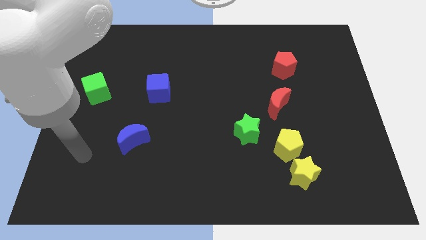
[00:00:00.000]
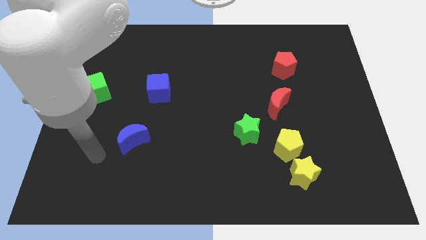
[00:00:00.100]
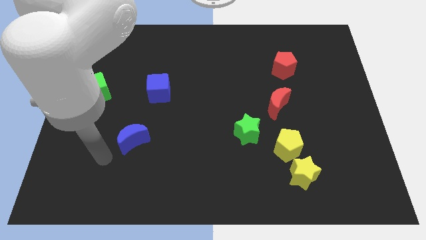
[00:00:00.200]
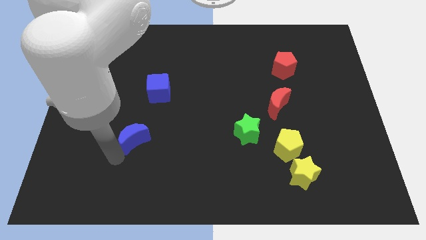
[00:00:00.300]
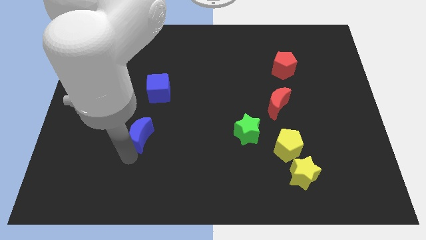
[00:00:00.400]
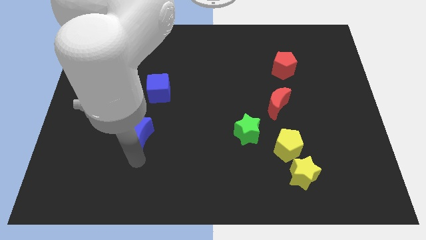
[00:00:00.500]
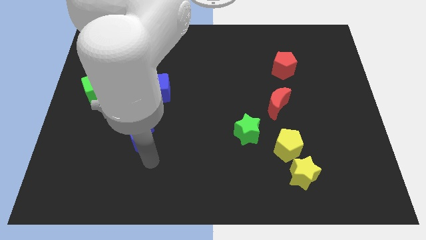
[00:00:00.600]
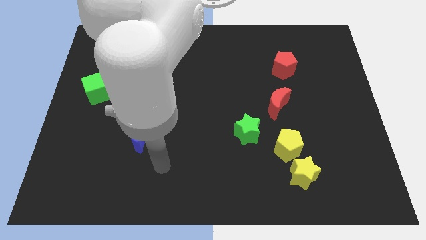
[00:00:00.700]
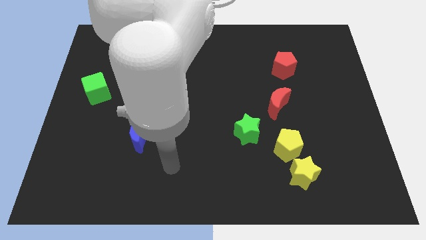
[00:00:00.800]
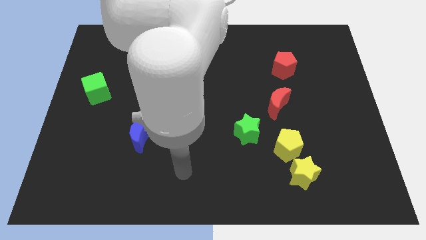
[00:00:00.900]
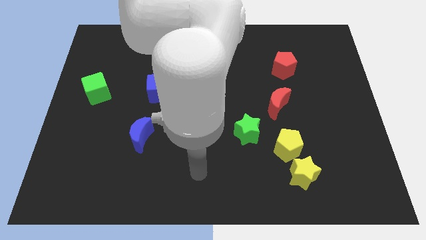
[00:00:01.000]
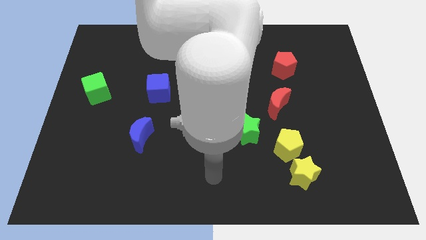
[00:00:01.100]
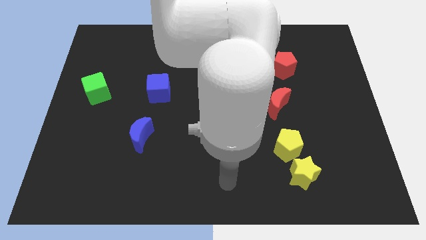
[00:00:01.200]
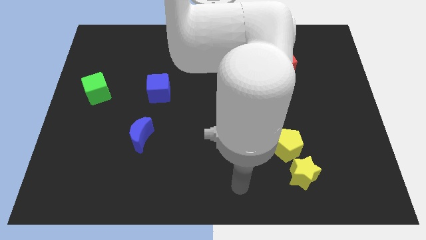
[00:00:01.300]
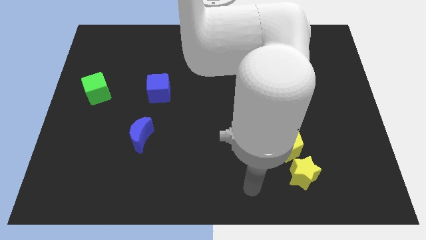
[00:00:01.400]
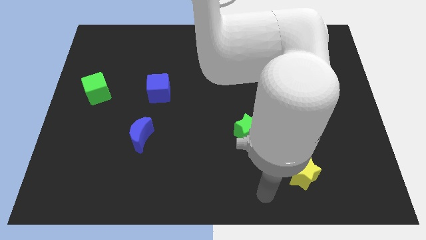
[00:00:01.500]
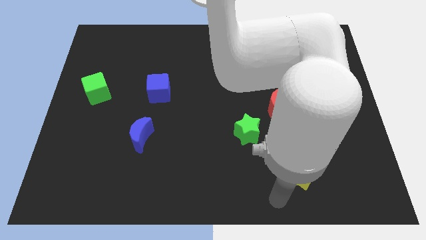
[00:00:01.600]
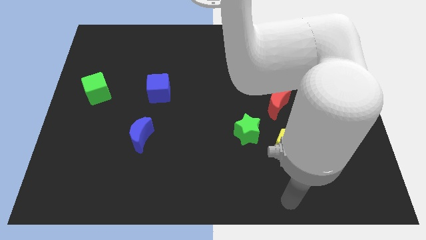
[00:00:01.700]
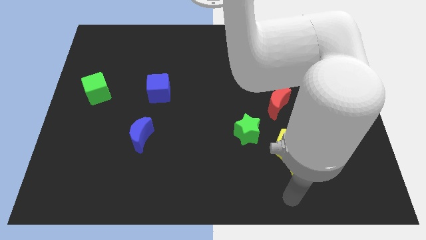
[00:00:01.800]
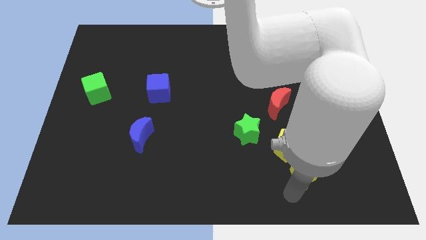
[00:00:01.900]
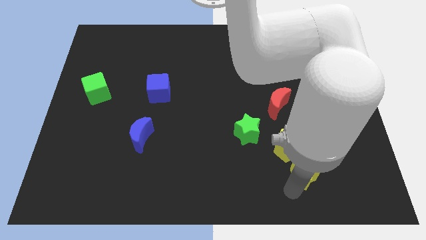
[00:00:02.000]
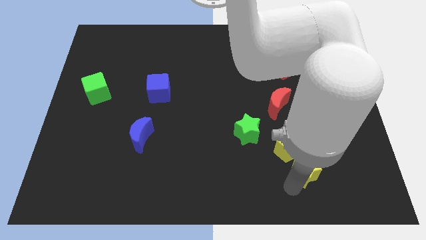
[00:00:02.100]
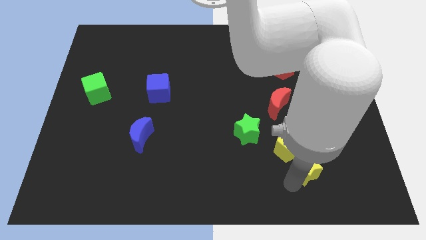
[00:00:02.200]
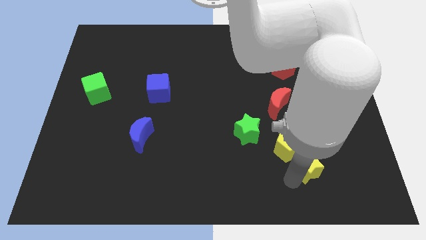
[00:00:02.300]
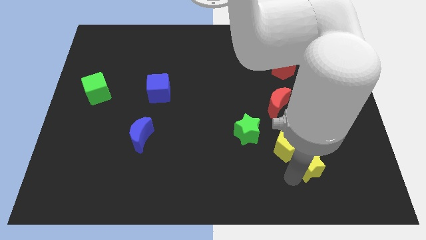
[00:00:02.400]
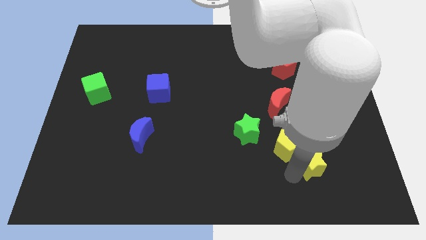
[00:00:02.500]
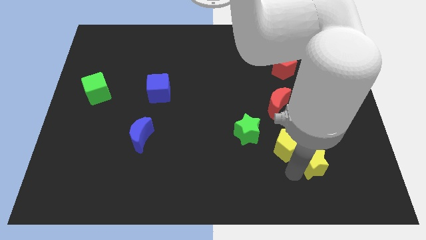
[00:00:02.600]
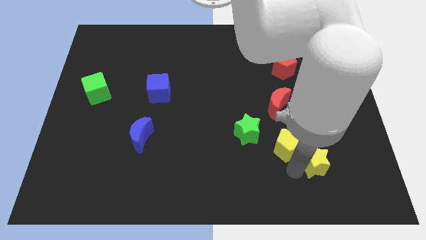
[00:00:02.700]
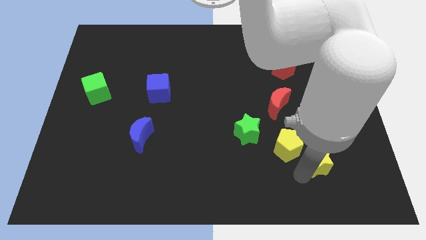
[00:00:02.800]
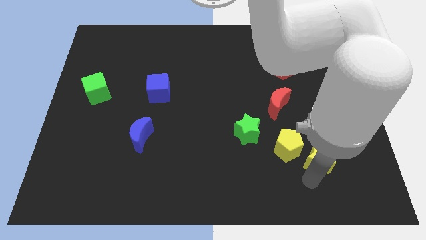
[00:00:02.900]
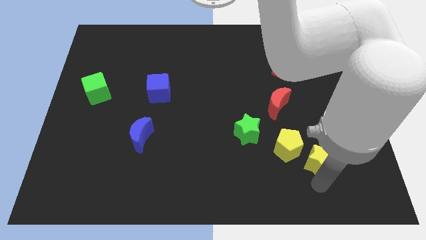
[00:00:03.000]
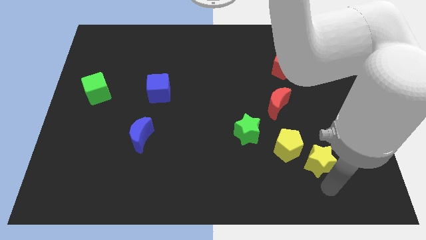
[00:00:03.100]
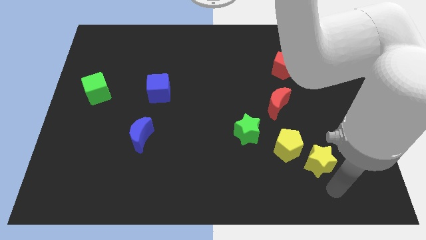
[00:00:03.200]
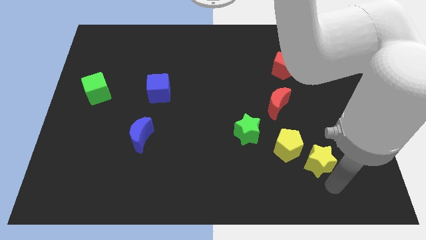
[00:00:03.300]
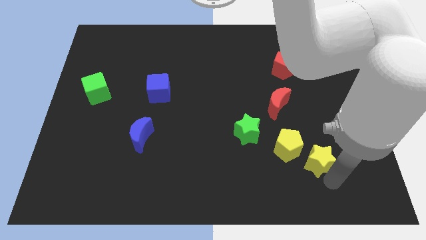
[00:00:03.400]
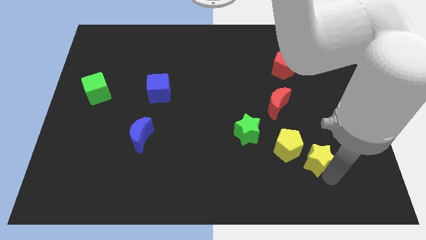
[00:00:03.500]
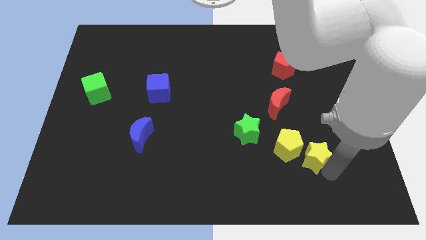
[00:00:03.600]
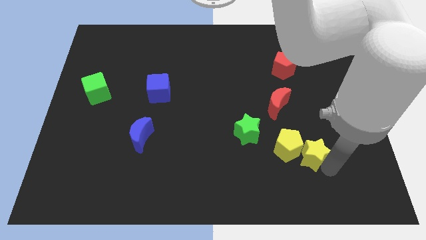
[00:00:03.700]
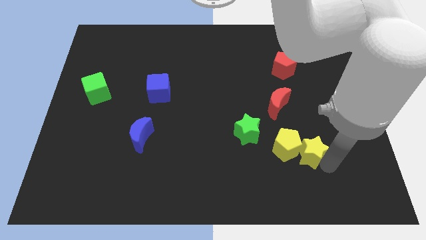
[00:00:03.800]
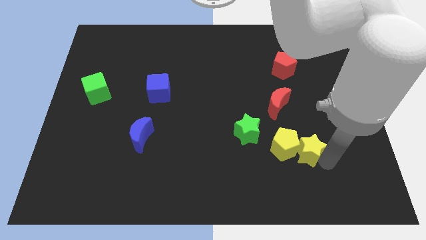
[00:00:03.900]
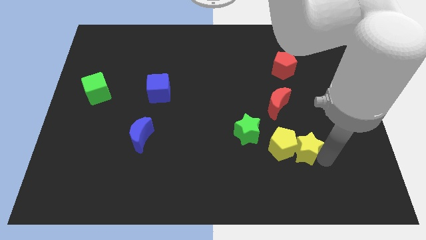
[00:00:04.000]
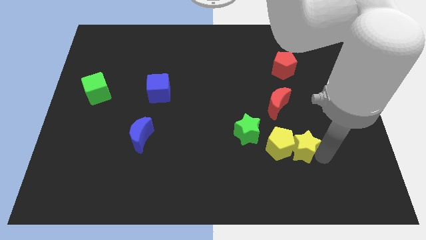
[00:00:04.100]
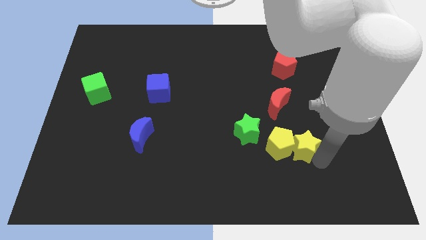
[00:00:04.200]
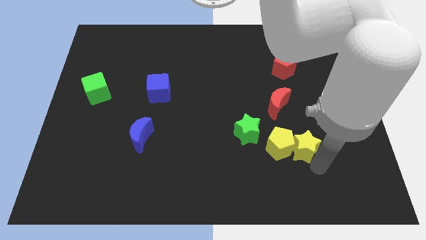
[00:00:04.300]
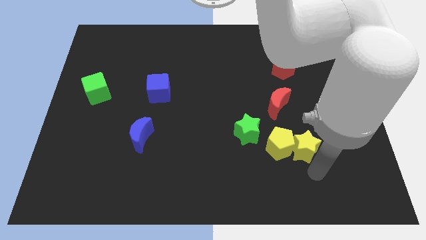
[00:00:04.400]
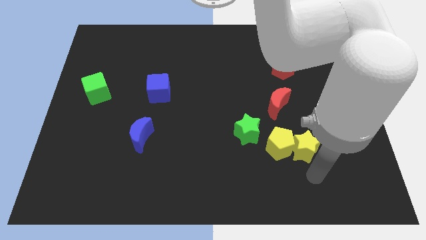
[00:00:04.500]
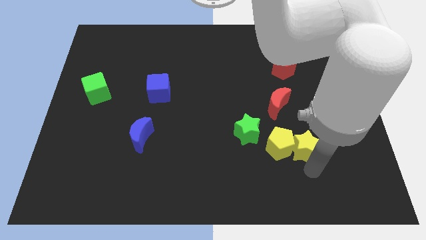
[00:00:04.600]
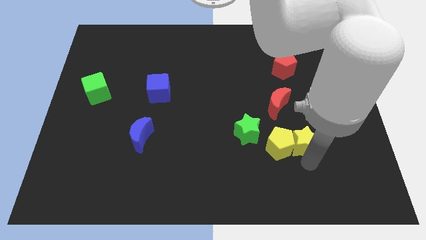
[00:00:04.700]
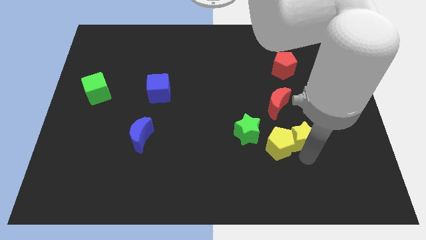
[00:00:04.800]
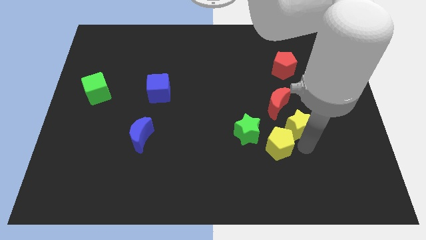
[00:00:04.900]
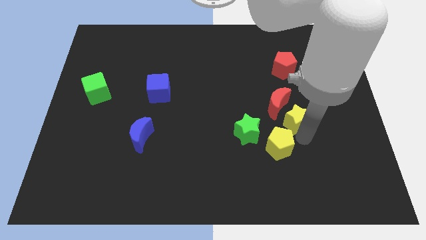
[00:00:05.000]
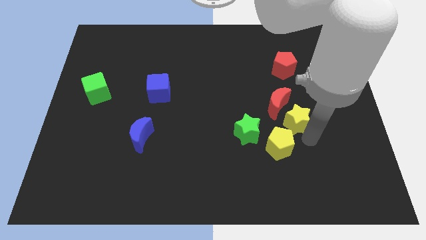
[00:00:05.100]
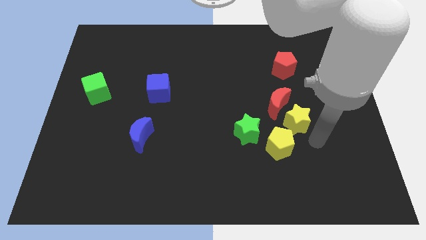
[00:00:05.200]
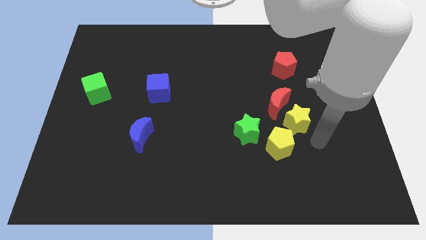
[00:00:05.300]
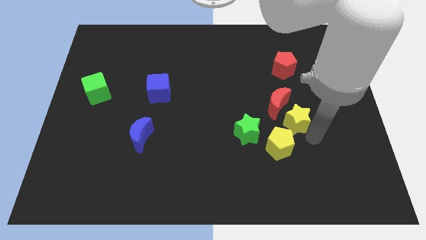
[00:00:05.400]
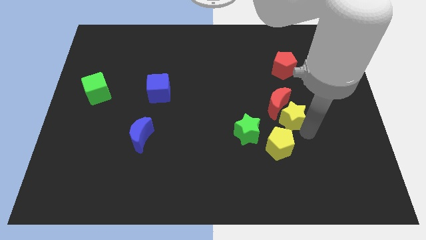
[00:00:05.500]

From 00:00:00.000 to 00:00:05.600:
put the yellow star next to the red moon

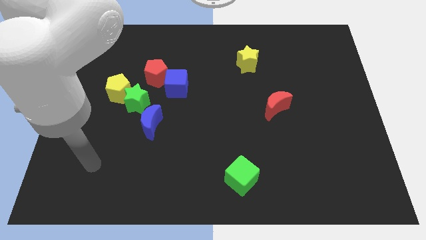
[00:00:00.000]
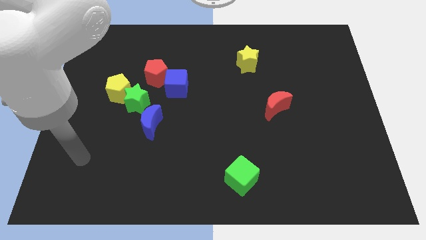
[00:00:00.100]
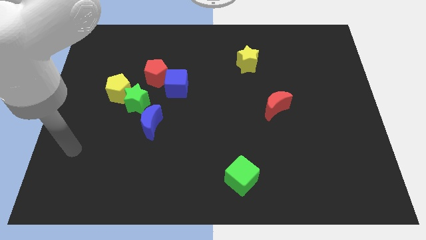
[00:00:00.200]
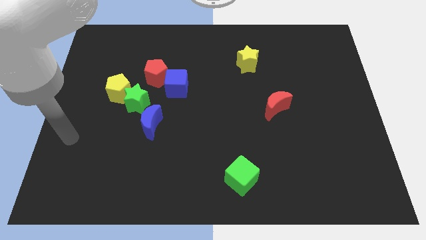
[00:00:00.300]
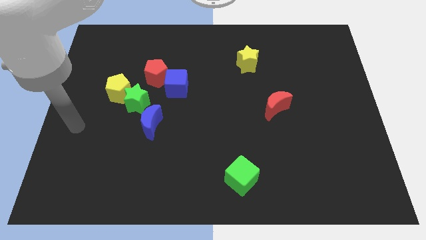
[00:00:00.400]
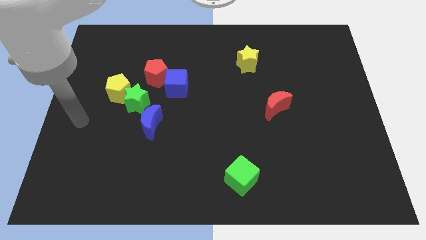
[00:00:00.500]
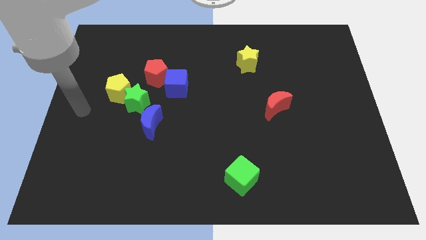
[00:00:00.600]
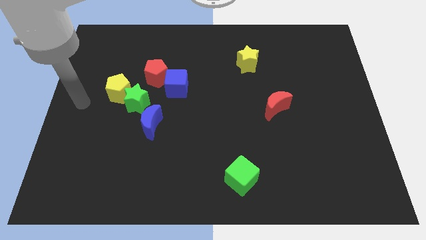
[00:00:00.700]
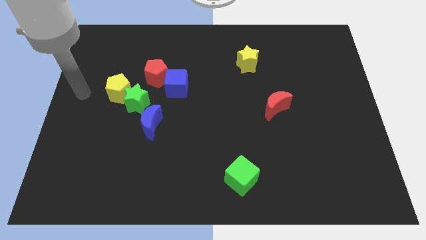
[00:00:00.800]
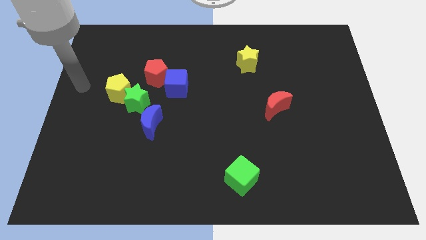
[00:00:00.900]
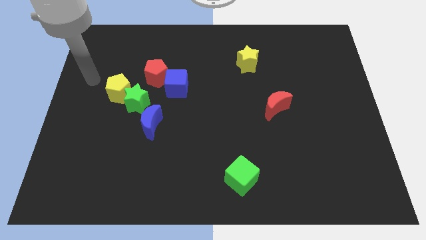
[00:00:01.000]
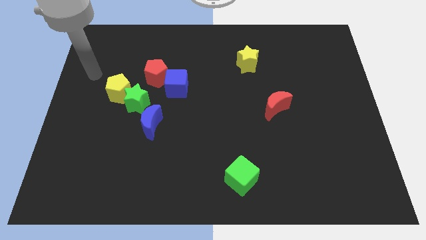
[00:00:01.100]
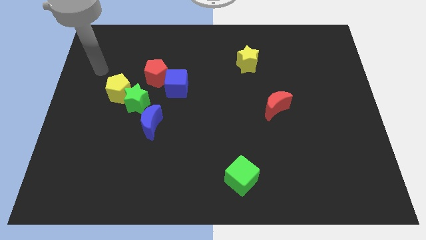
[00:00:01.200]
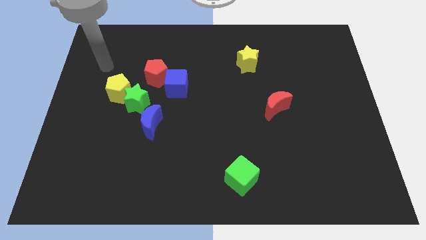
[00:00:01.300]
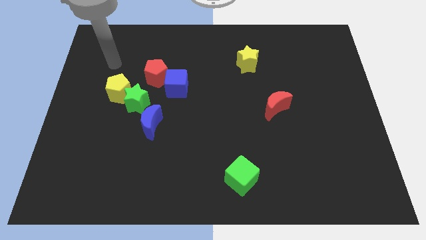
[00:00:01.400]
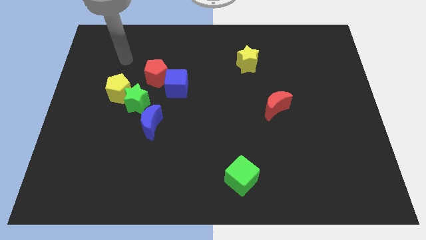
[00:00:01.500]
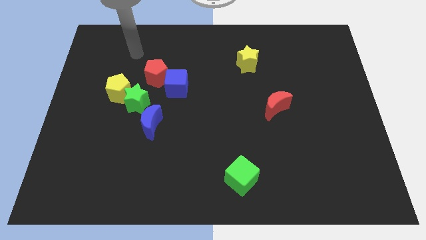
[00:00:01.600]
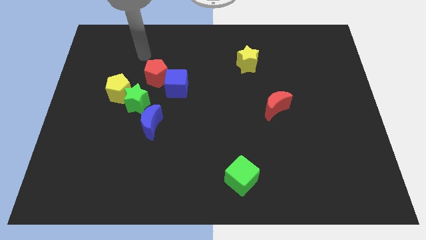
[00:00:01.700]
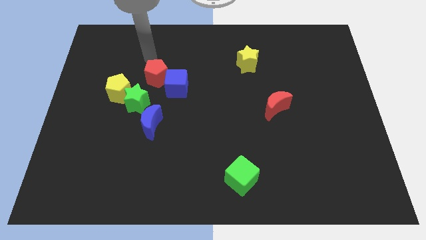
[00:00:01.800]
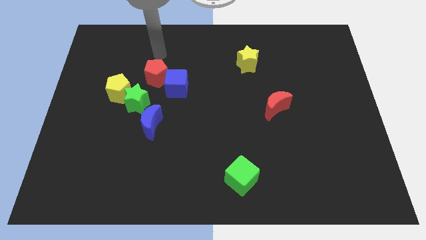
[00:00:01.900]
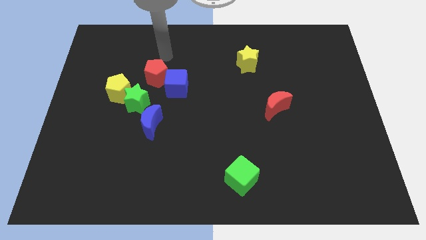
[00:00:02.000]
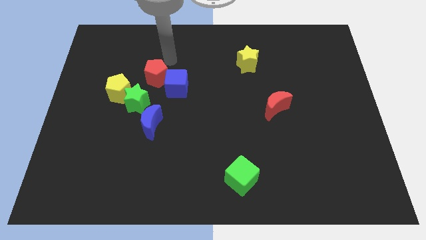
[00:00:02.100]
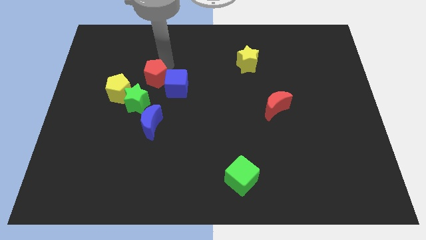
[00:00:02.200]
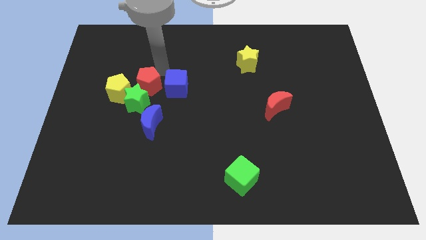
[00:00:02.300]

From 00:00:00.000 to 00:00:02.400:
put the red pentagon next to the green star
